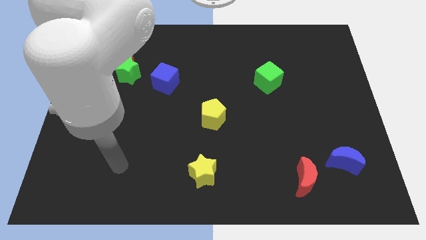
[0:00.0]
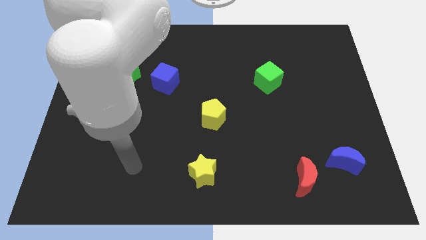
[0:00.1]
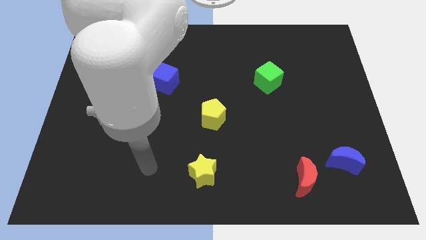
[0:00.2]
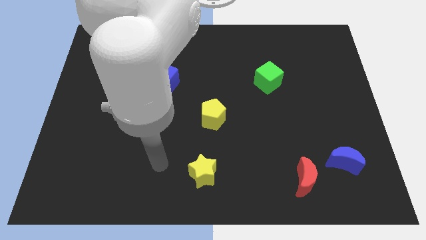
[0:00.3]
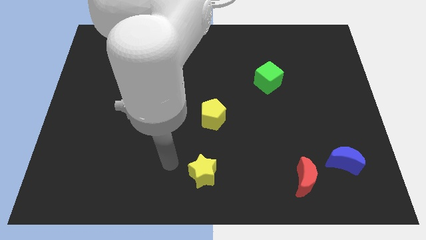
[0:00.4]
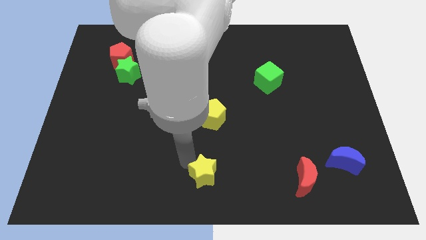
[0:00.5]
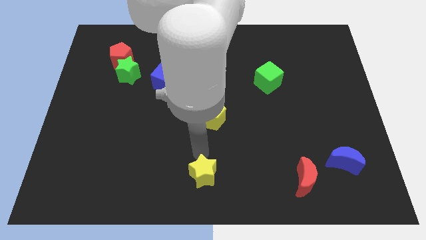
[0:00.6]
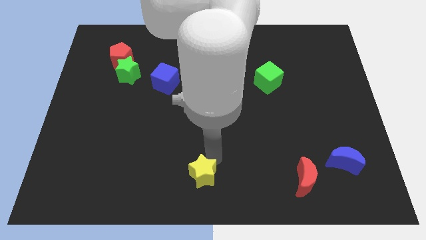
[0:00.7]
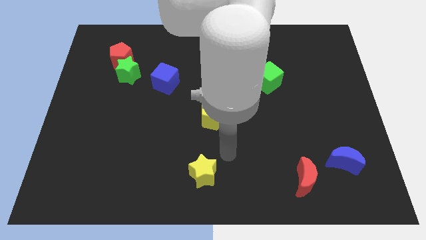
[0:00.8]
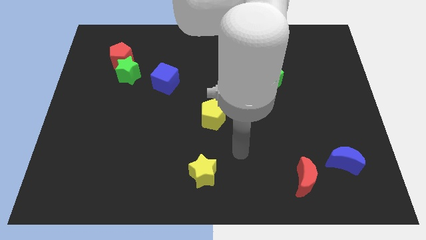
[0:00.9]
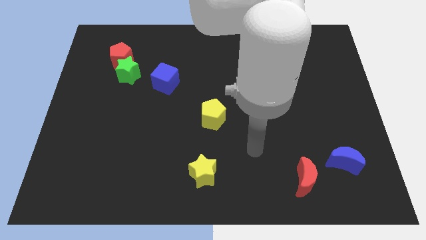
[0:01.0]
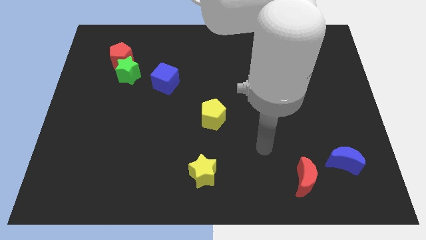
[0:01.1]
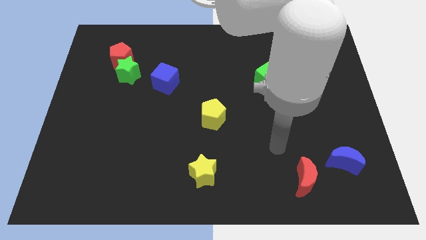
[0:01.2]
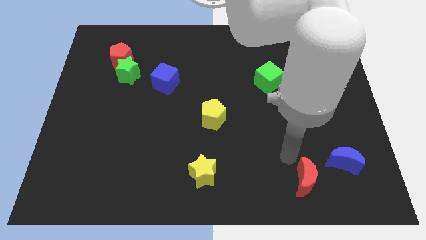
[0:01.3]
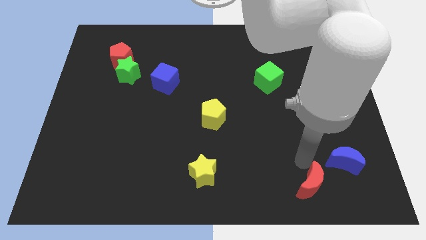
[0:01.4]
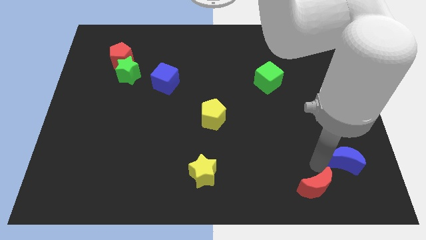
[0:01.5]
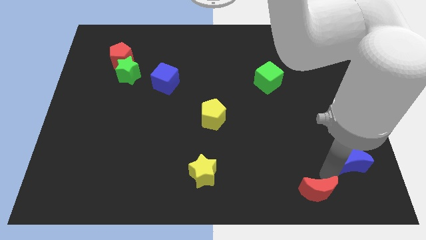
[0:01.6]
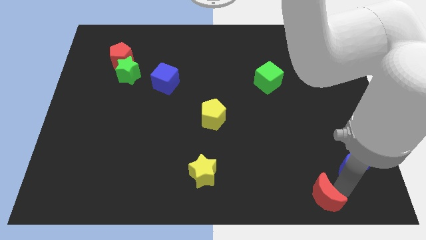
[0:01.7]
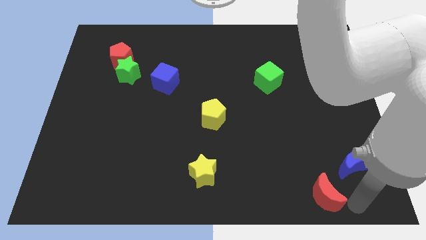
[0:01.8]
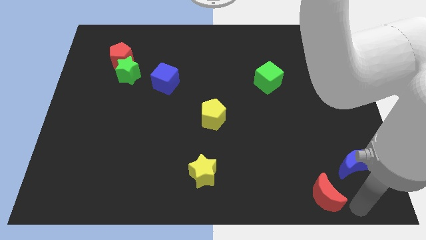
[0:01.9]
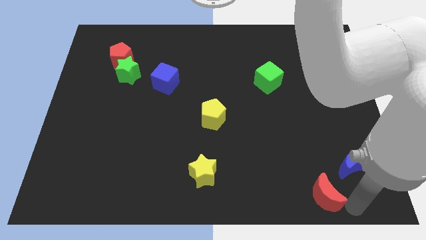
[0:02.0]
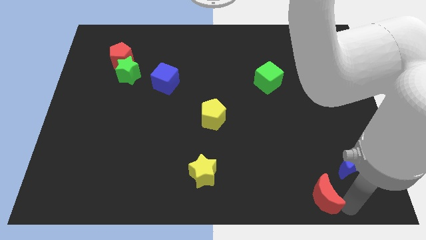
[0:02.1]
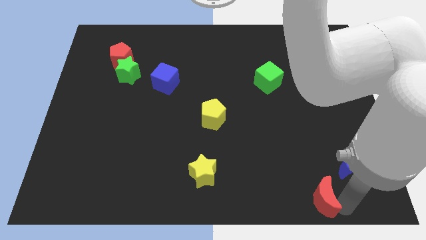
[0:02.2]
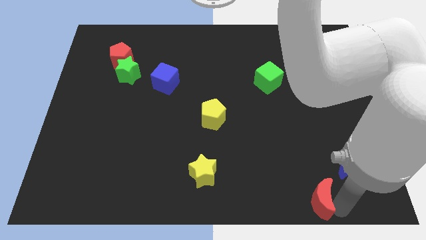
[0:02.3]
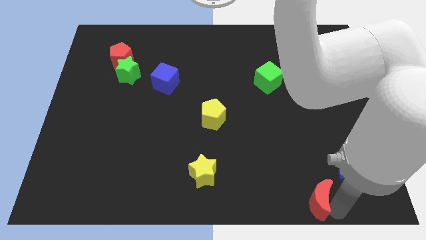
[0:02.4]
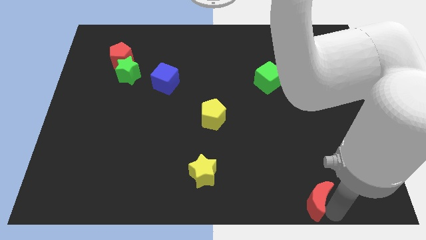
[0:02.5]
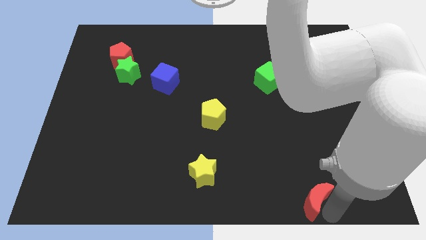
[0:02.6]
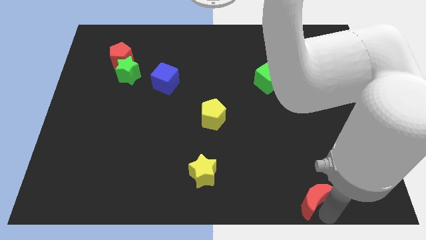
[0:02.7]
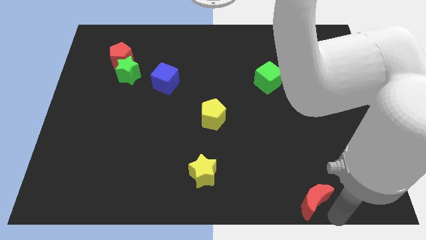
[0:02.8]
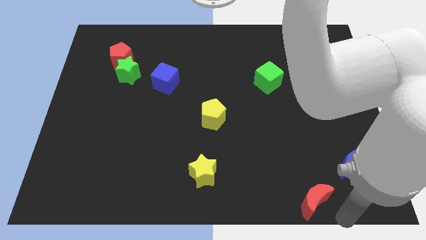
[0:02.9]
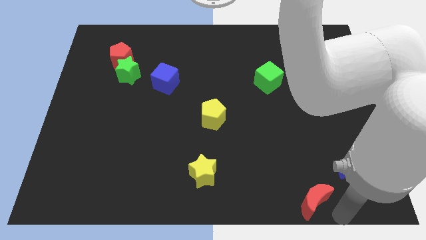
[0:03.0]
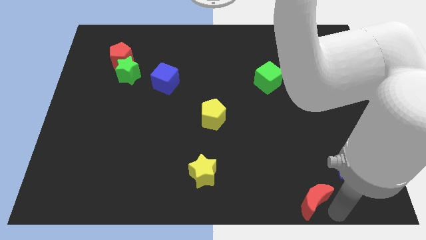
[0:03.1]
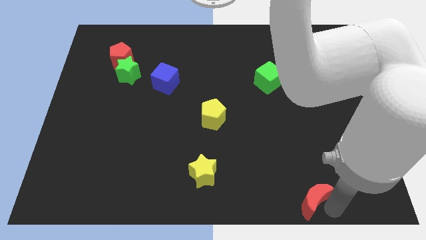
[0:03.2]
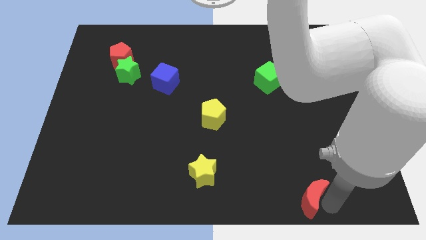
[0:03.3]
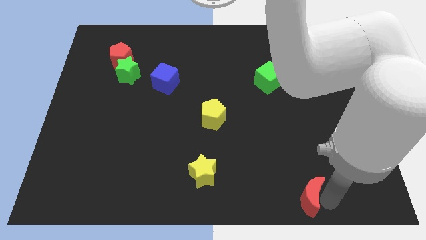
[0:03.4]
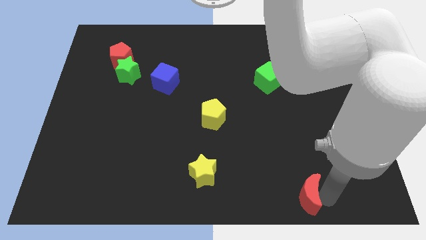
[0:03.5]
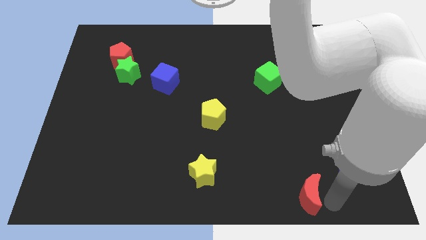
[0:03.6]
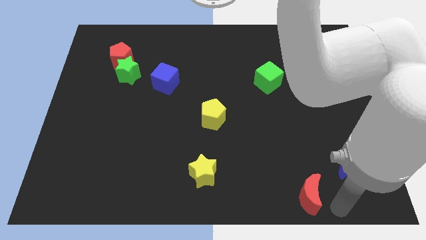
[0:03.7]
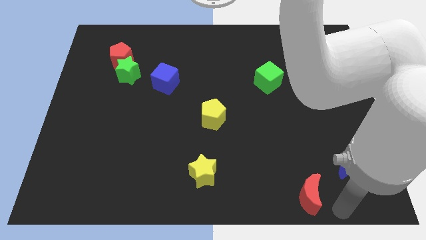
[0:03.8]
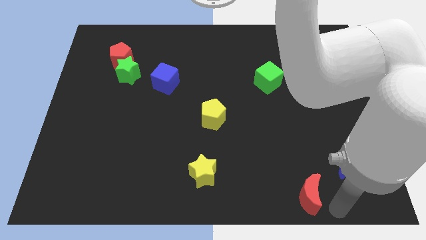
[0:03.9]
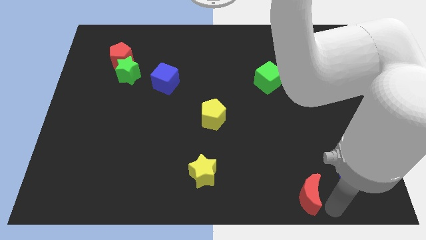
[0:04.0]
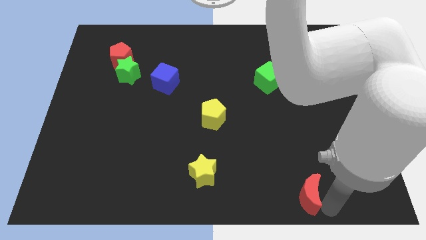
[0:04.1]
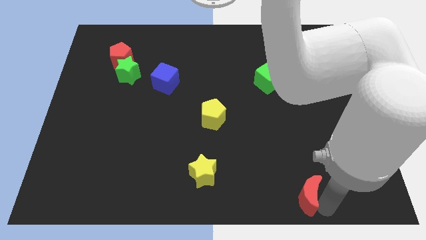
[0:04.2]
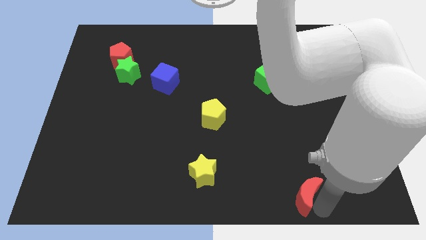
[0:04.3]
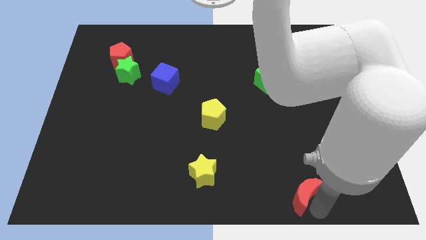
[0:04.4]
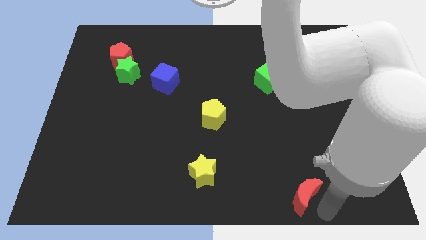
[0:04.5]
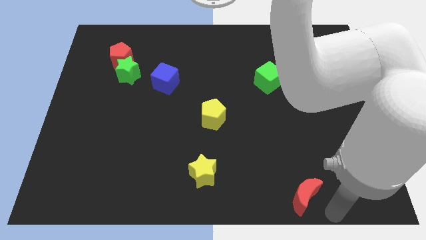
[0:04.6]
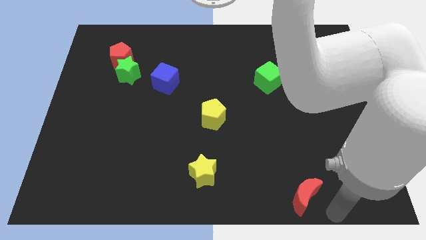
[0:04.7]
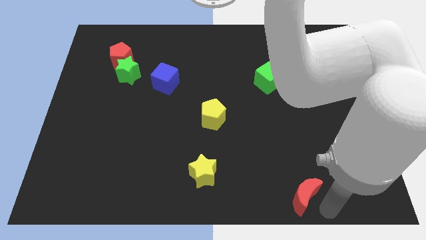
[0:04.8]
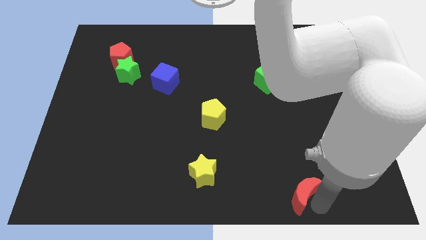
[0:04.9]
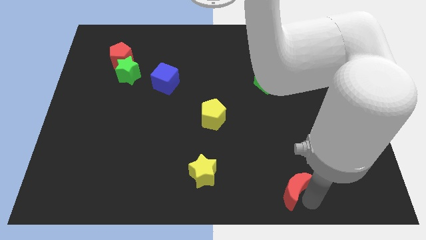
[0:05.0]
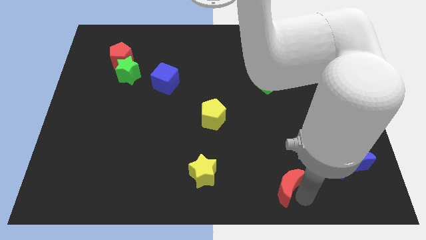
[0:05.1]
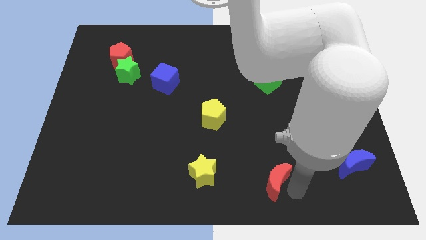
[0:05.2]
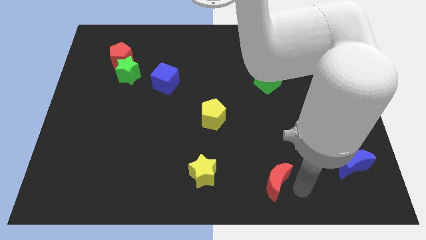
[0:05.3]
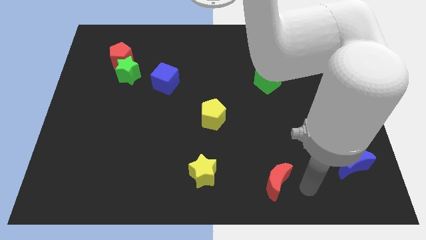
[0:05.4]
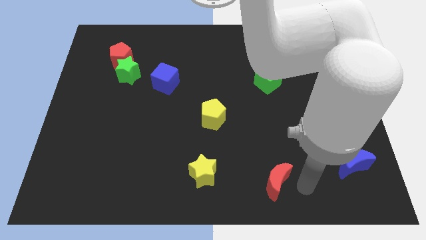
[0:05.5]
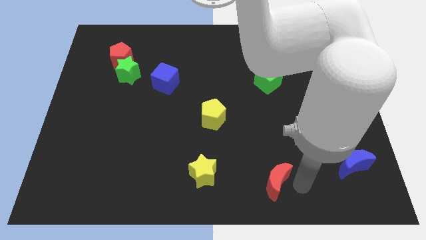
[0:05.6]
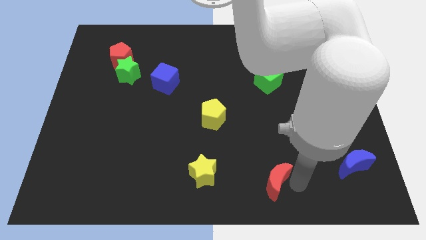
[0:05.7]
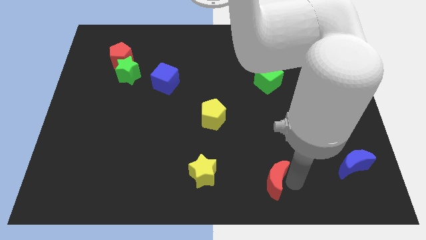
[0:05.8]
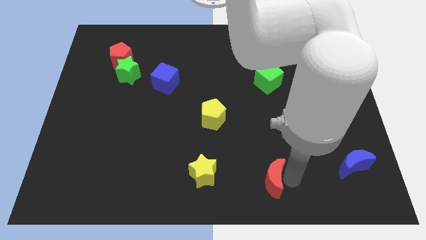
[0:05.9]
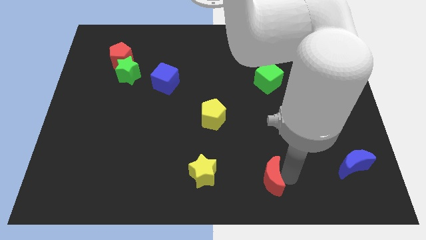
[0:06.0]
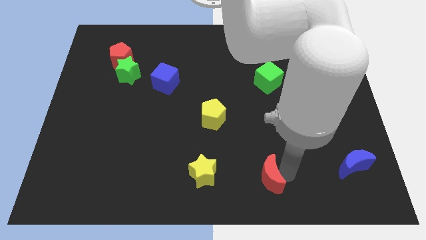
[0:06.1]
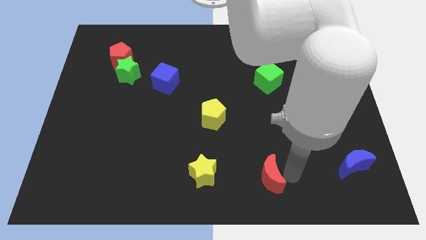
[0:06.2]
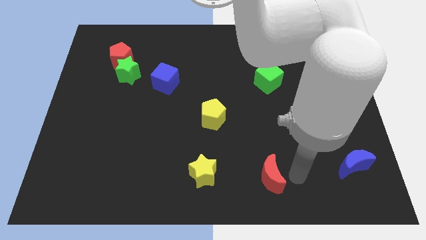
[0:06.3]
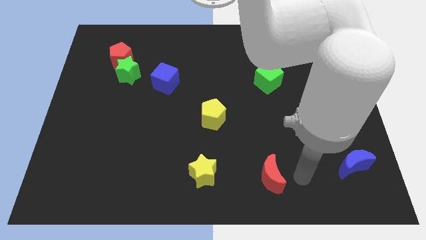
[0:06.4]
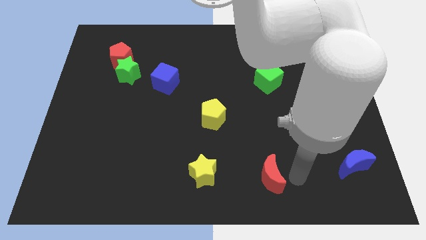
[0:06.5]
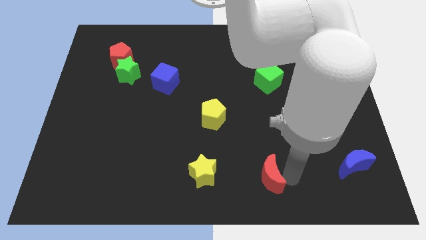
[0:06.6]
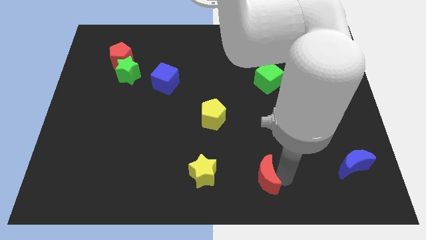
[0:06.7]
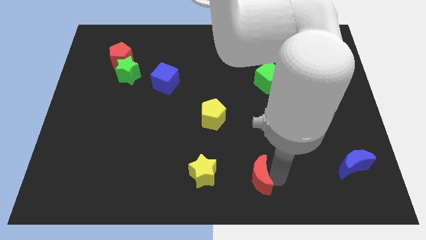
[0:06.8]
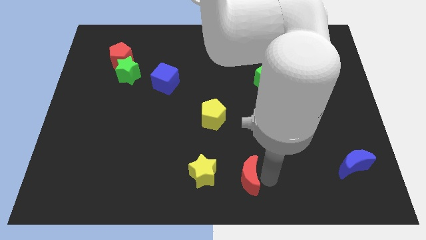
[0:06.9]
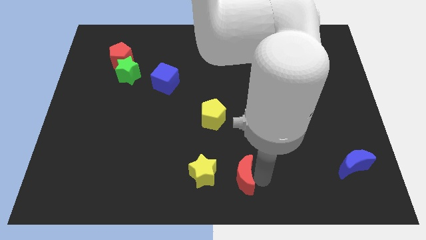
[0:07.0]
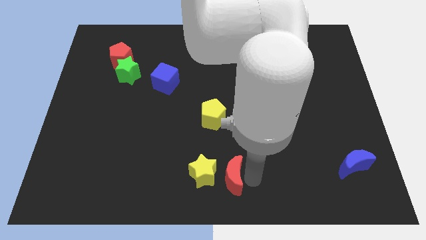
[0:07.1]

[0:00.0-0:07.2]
slide the red moon close to the yellow star
